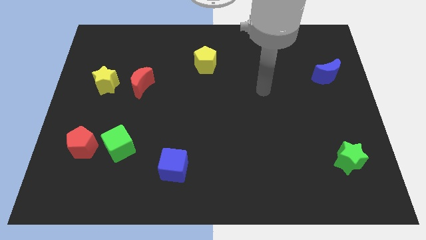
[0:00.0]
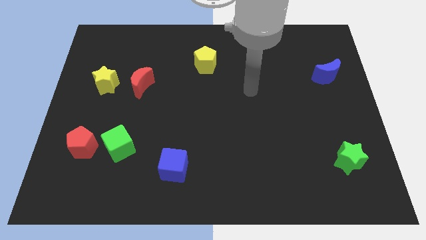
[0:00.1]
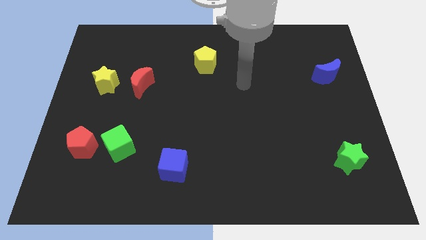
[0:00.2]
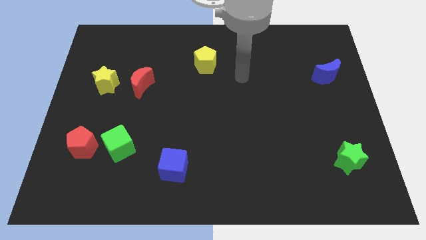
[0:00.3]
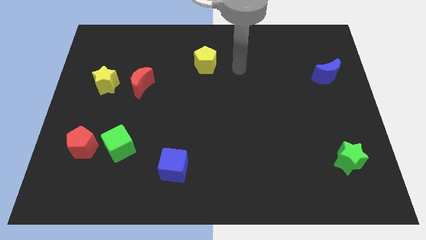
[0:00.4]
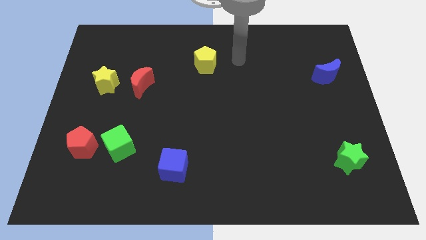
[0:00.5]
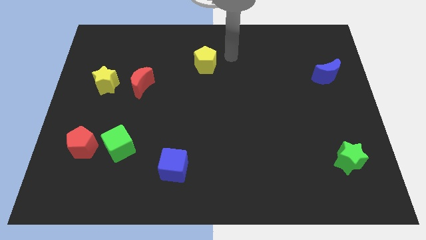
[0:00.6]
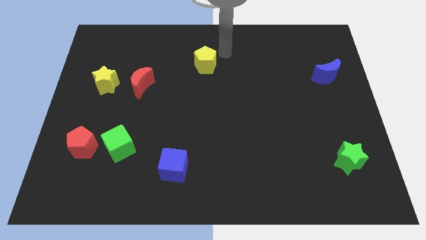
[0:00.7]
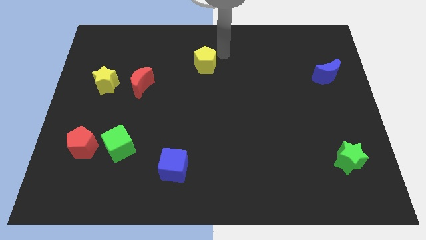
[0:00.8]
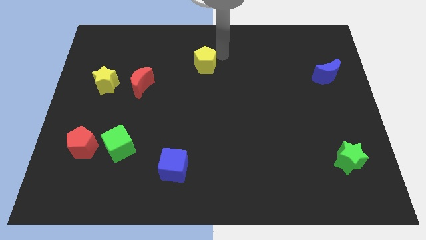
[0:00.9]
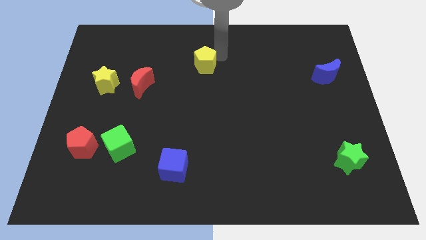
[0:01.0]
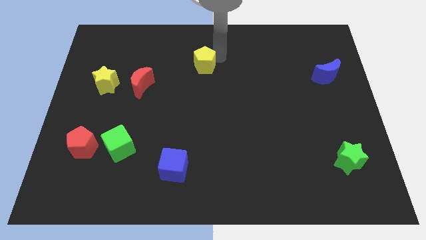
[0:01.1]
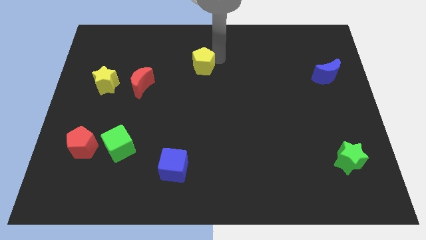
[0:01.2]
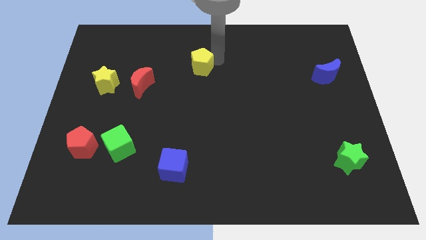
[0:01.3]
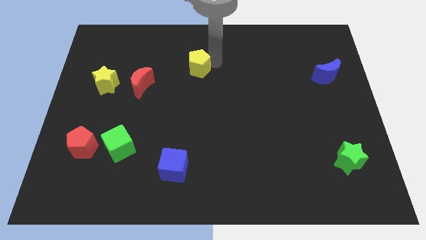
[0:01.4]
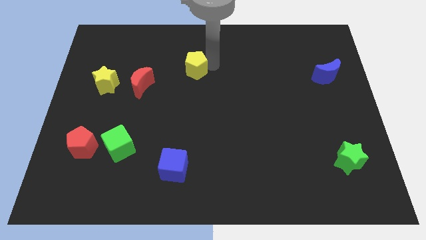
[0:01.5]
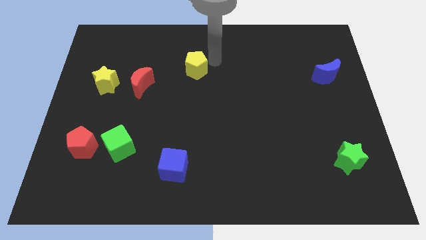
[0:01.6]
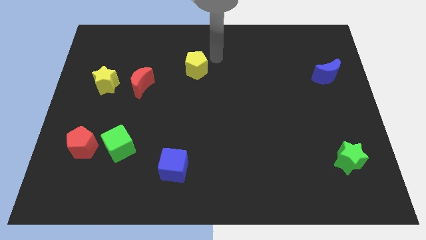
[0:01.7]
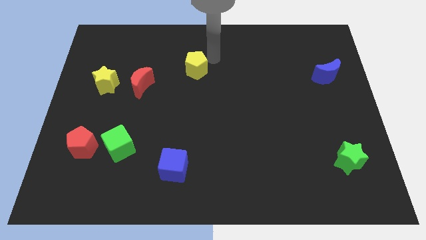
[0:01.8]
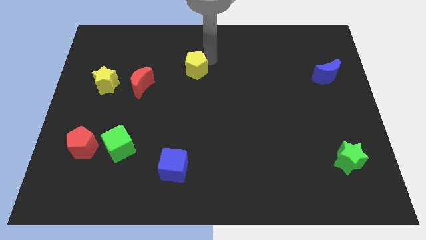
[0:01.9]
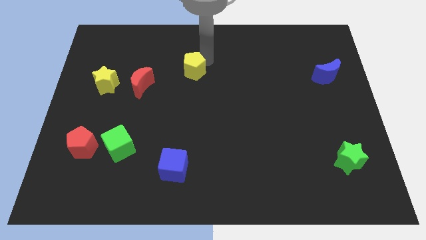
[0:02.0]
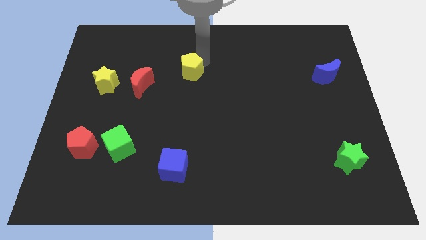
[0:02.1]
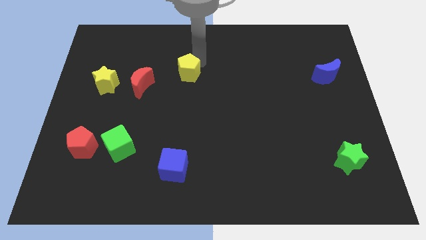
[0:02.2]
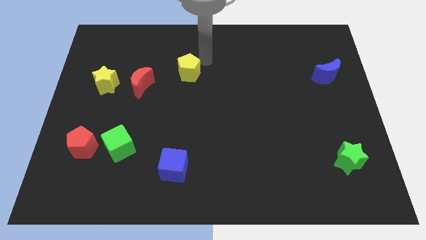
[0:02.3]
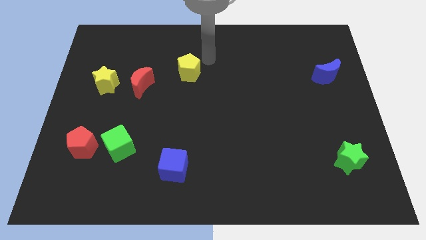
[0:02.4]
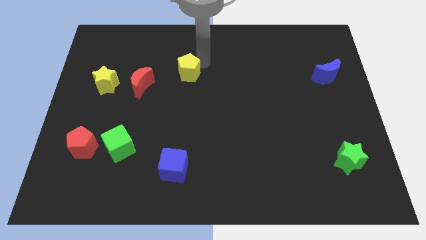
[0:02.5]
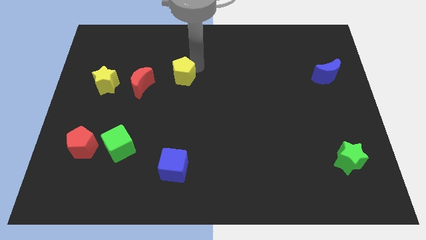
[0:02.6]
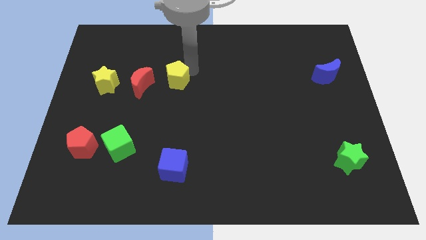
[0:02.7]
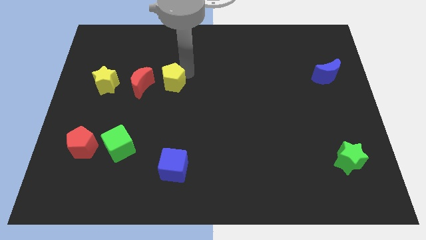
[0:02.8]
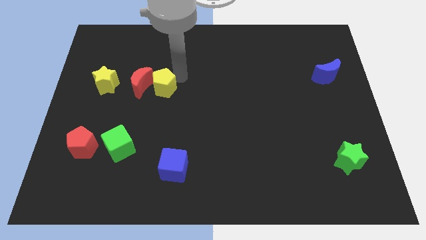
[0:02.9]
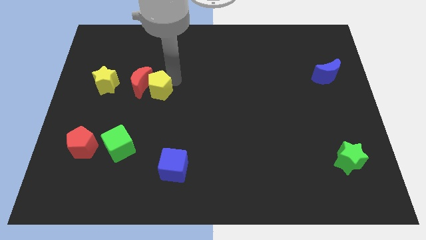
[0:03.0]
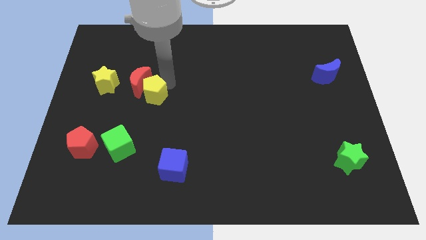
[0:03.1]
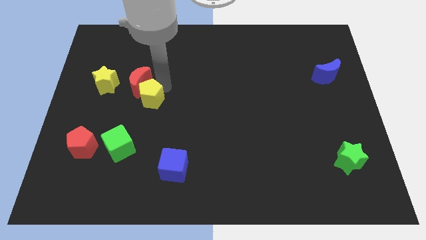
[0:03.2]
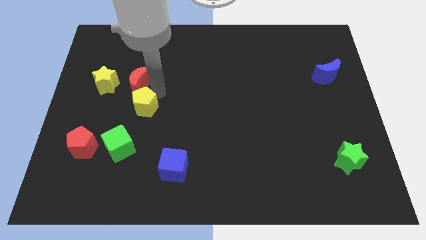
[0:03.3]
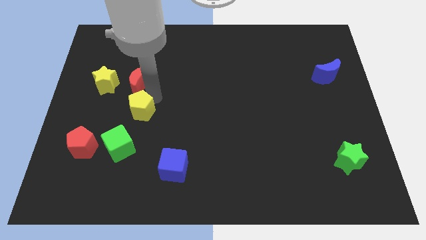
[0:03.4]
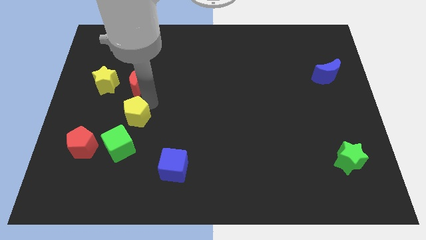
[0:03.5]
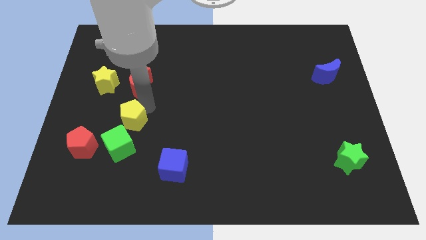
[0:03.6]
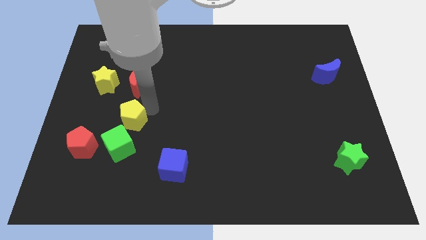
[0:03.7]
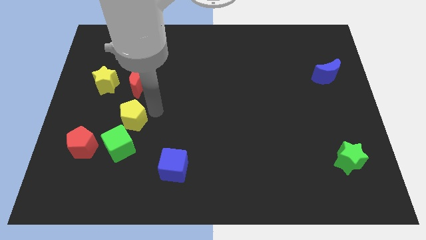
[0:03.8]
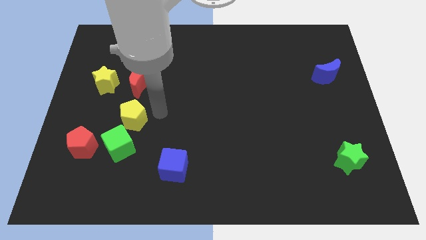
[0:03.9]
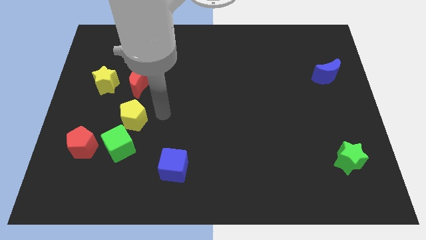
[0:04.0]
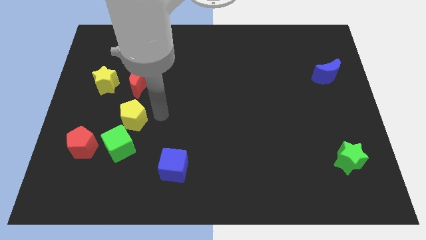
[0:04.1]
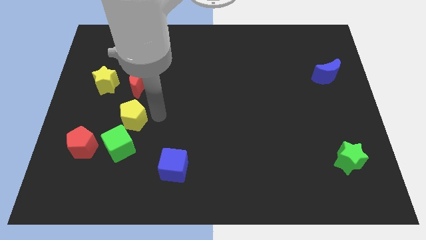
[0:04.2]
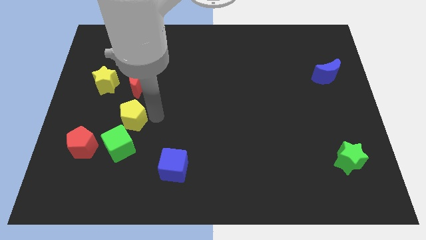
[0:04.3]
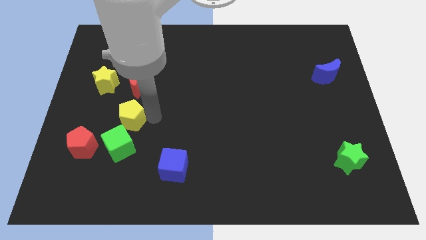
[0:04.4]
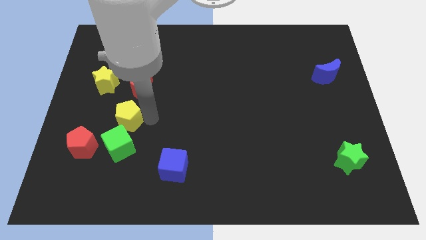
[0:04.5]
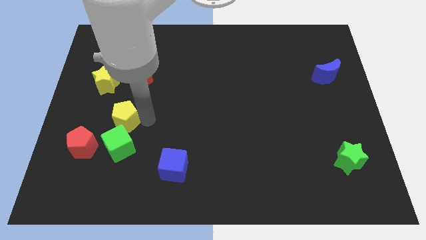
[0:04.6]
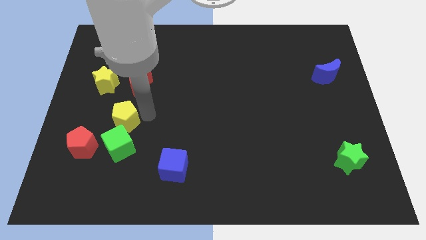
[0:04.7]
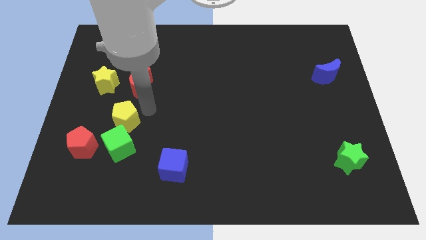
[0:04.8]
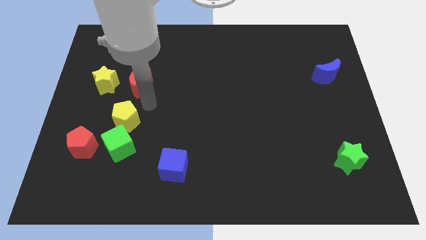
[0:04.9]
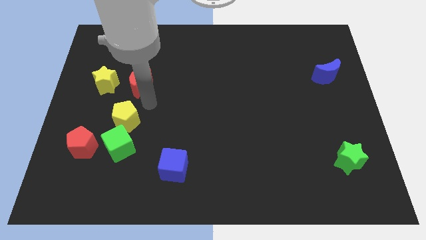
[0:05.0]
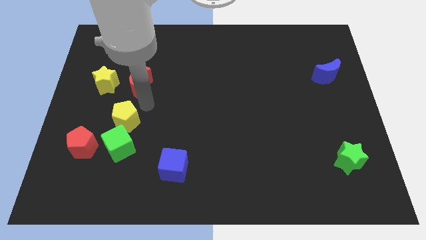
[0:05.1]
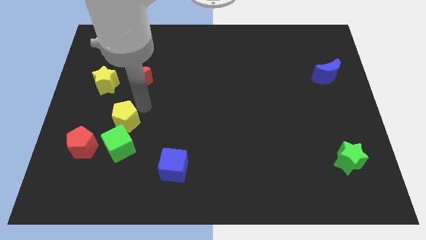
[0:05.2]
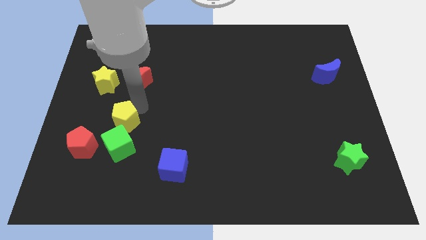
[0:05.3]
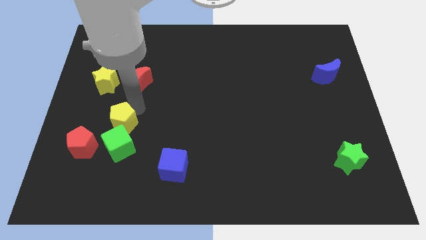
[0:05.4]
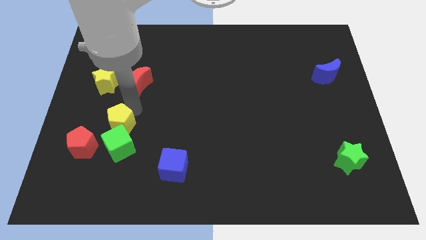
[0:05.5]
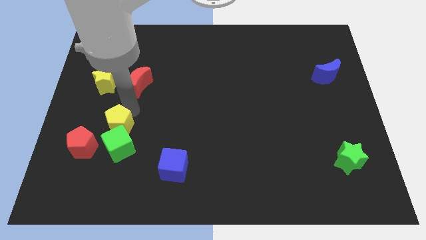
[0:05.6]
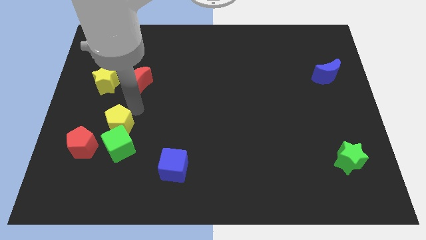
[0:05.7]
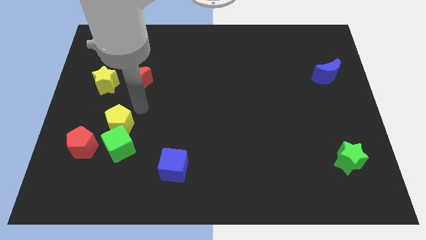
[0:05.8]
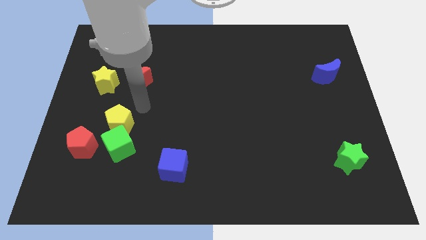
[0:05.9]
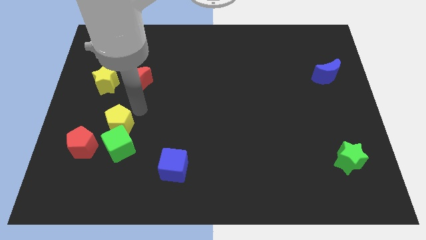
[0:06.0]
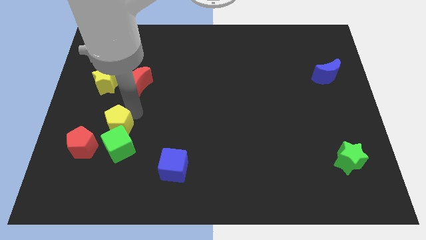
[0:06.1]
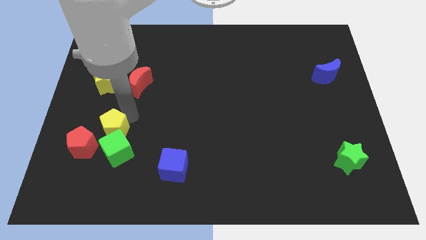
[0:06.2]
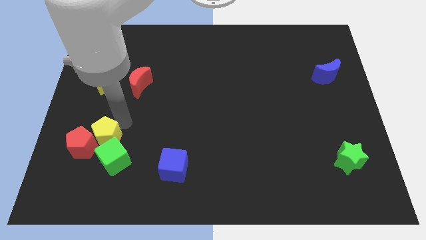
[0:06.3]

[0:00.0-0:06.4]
slide the yellow pentagon next to the red pentagon

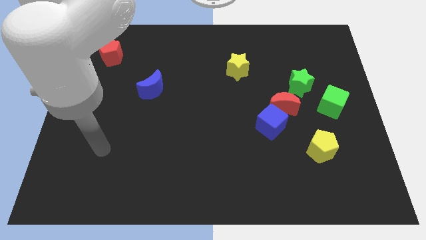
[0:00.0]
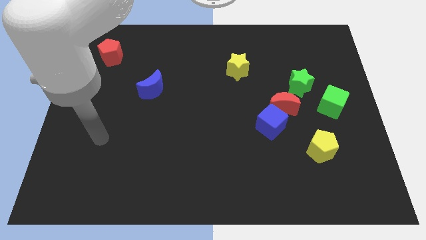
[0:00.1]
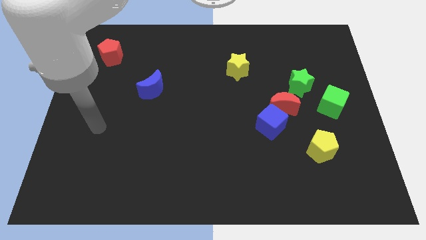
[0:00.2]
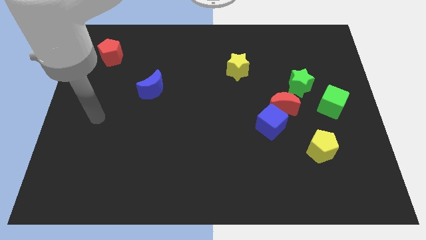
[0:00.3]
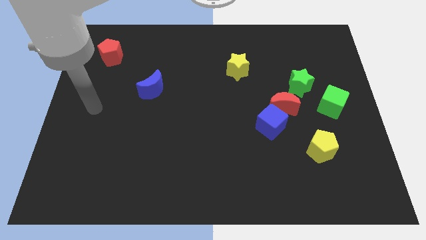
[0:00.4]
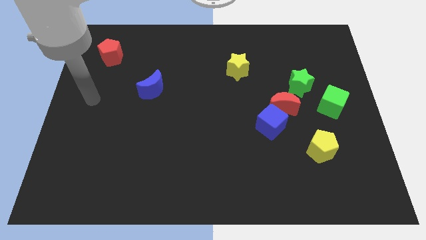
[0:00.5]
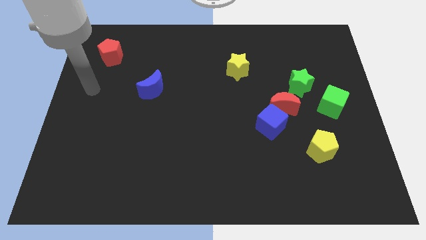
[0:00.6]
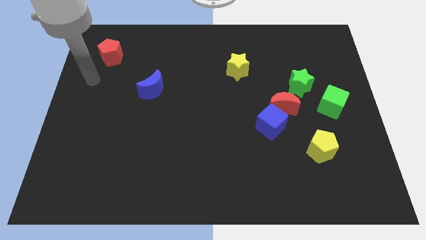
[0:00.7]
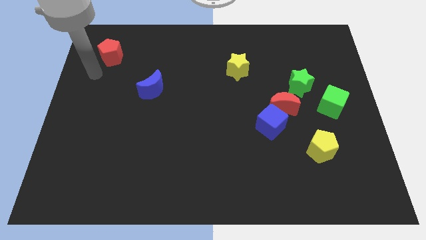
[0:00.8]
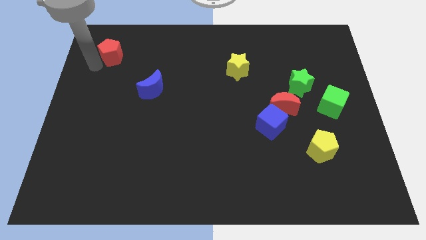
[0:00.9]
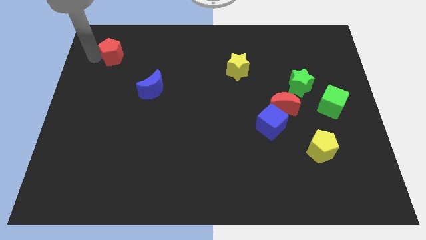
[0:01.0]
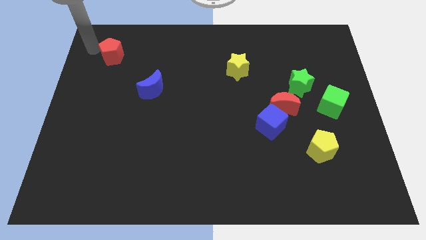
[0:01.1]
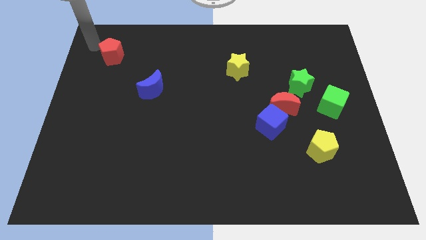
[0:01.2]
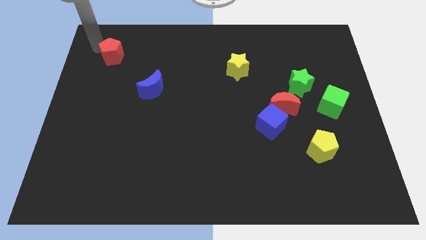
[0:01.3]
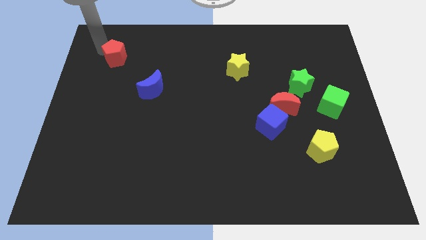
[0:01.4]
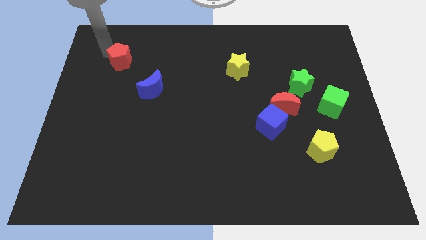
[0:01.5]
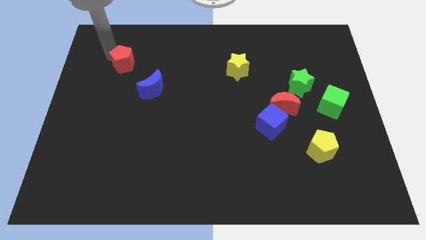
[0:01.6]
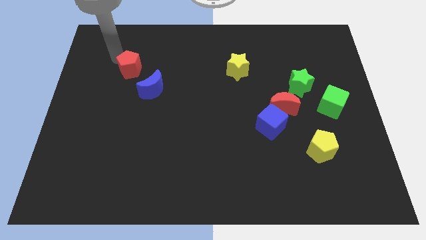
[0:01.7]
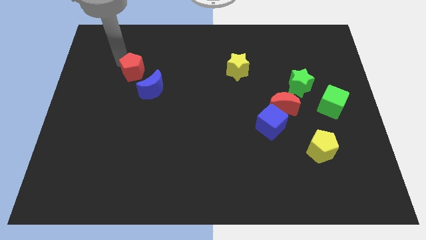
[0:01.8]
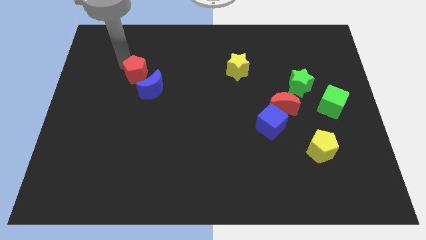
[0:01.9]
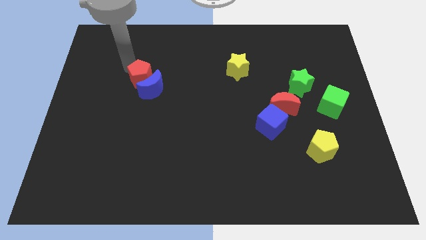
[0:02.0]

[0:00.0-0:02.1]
slide the red pentagon next to the blue moon
